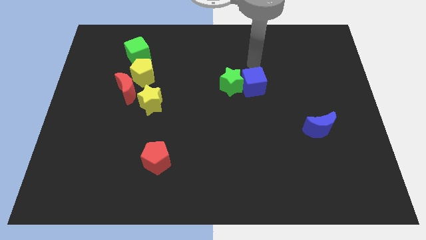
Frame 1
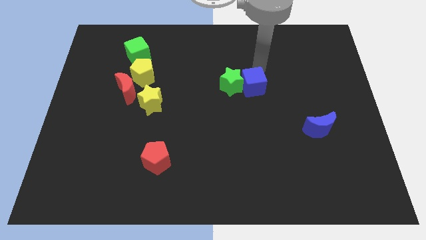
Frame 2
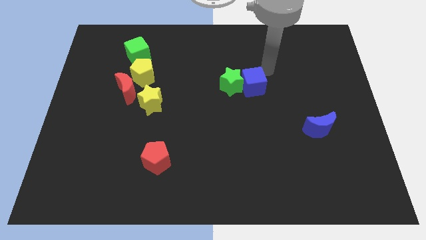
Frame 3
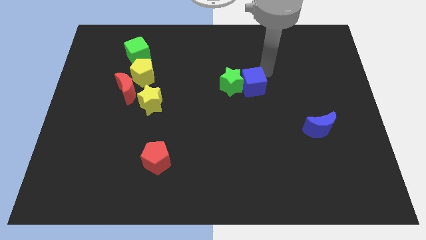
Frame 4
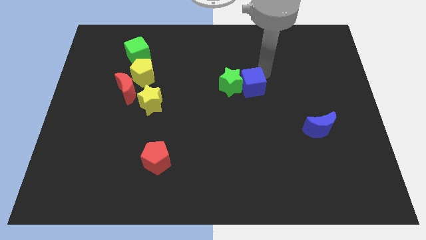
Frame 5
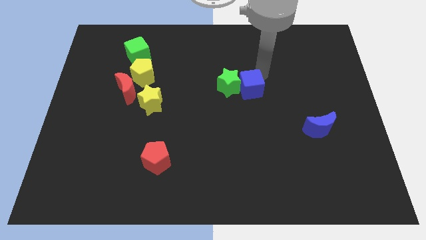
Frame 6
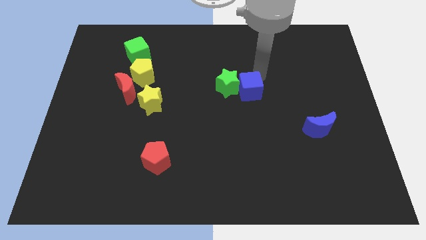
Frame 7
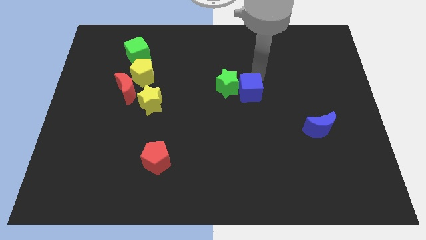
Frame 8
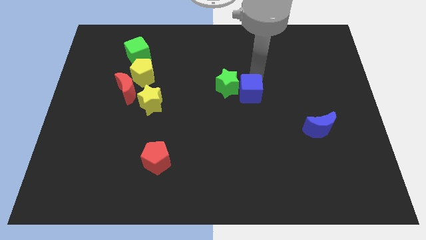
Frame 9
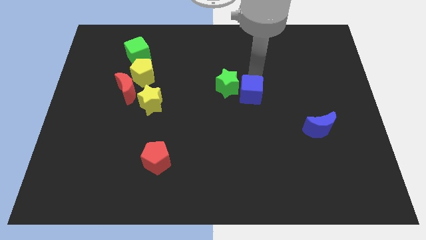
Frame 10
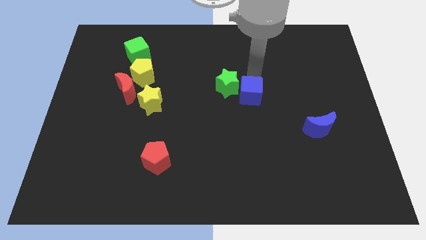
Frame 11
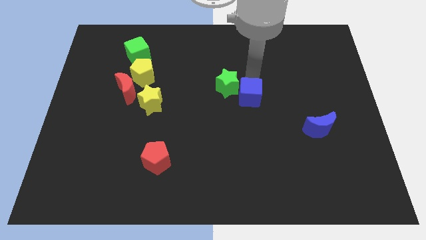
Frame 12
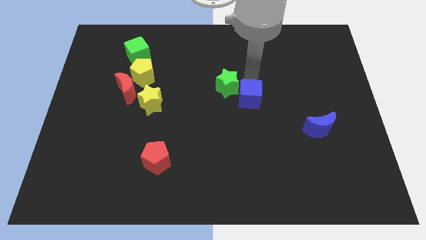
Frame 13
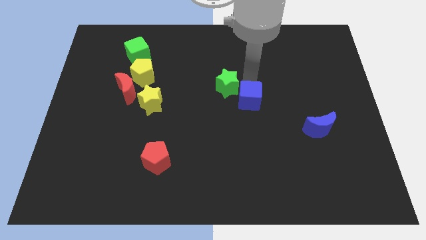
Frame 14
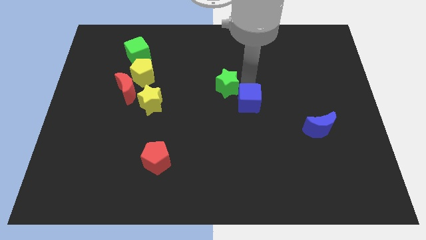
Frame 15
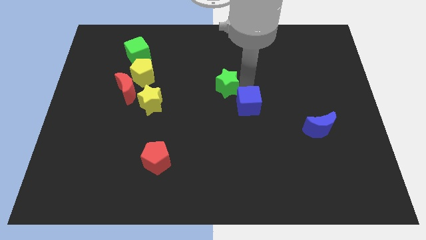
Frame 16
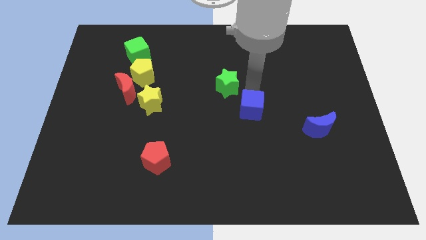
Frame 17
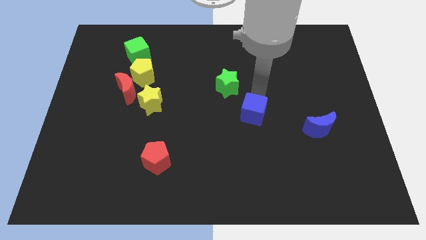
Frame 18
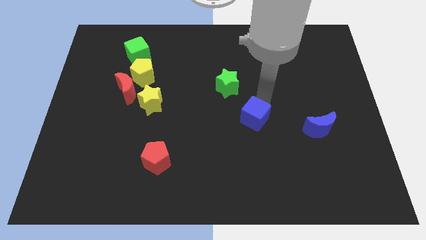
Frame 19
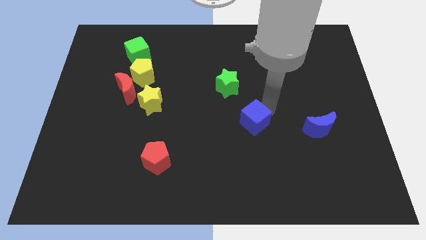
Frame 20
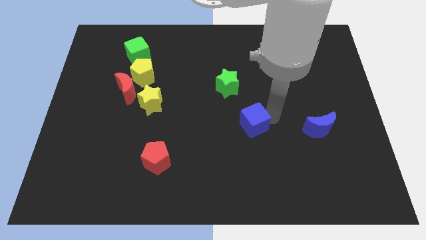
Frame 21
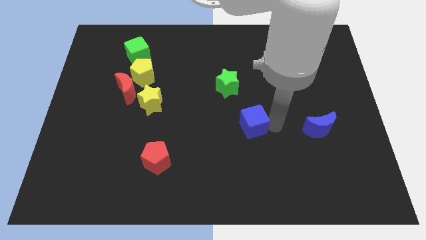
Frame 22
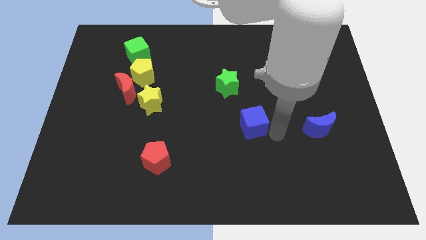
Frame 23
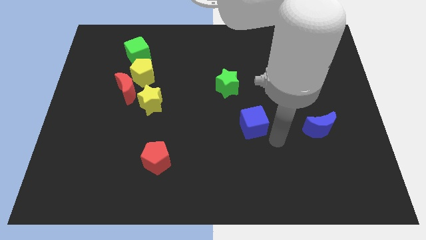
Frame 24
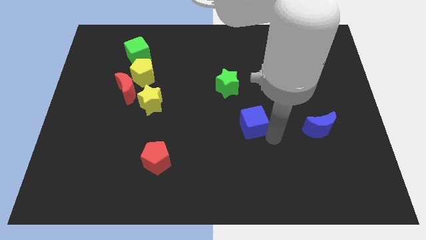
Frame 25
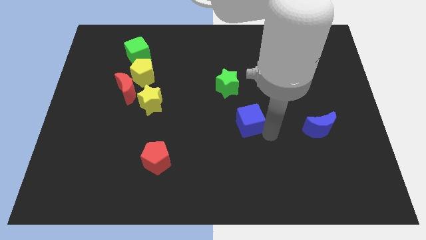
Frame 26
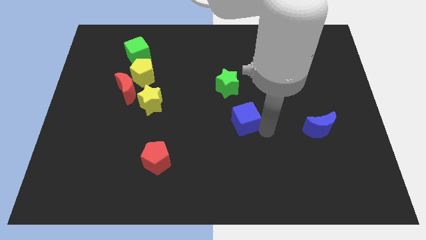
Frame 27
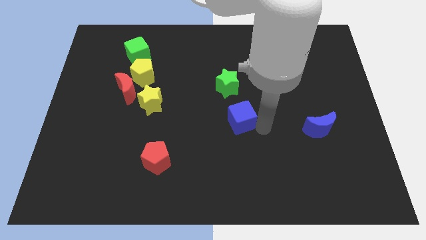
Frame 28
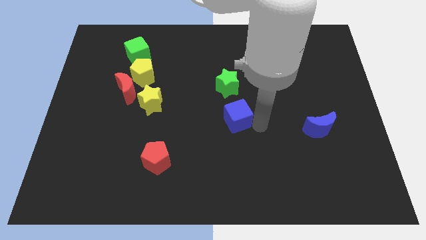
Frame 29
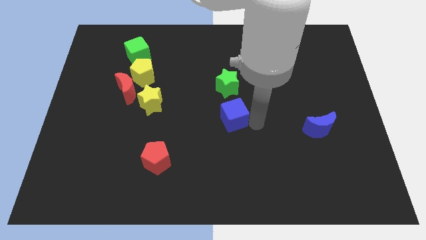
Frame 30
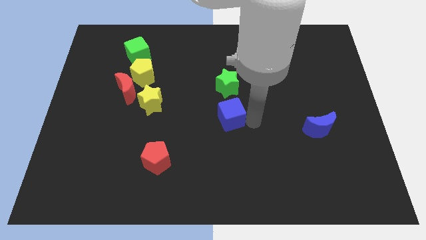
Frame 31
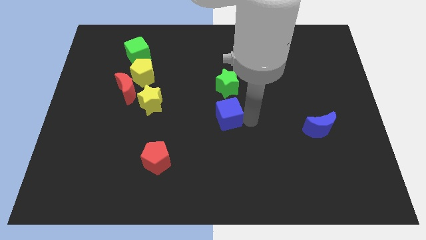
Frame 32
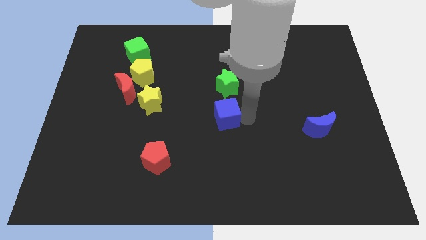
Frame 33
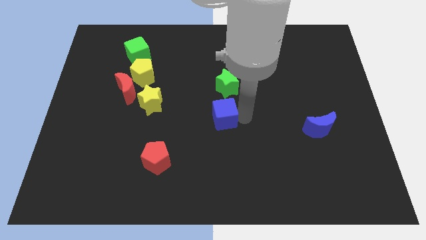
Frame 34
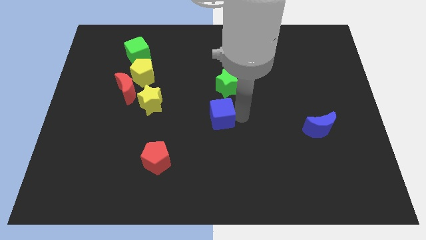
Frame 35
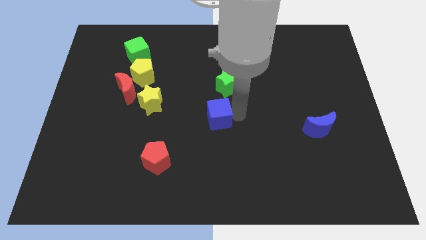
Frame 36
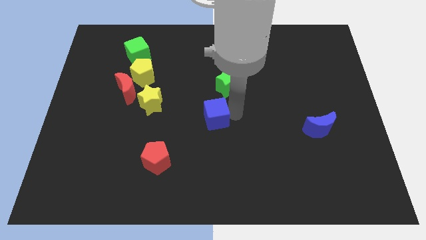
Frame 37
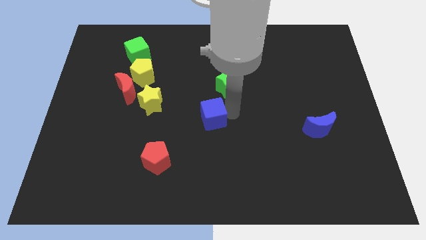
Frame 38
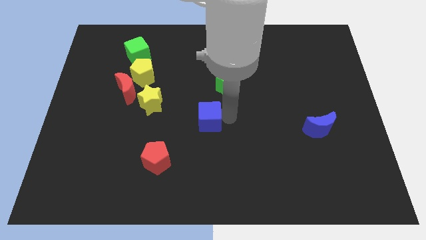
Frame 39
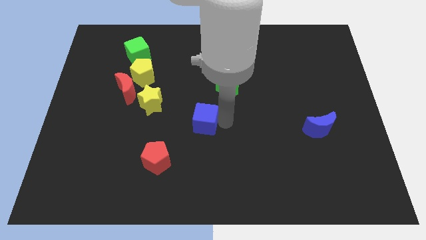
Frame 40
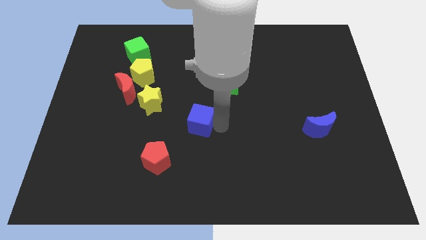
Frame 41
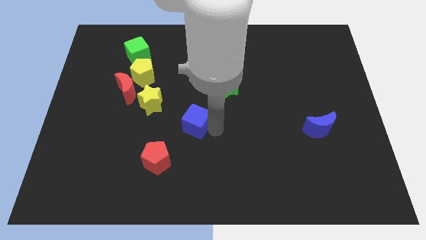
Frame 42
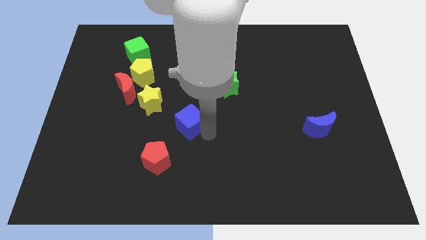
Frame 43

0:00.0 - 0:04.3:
push the blue cube left a bit

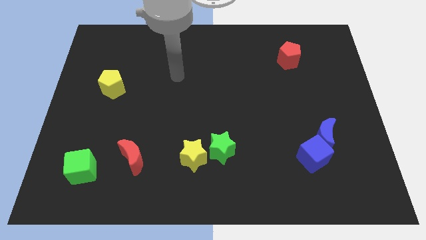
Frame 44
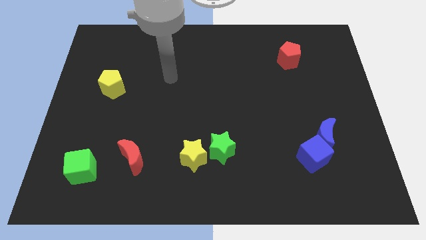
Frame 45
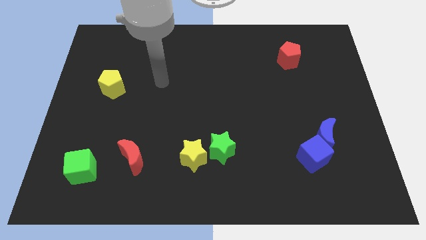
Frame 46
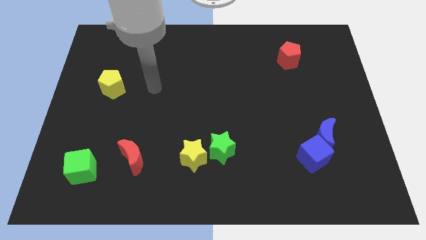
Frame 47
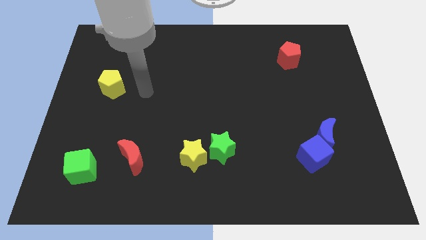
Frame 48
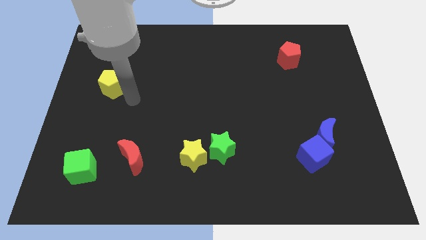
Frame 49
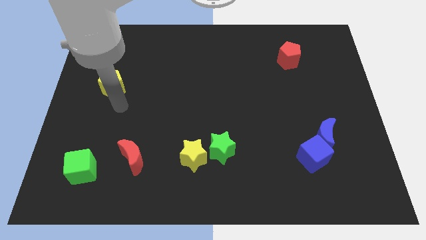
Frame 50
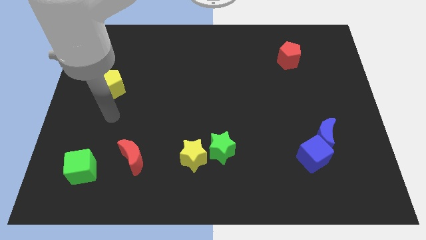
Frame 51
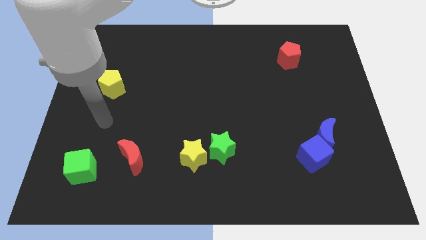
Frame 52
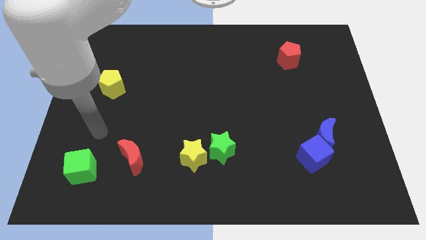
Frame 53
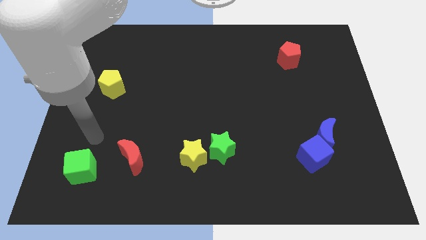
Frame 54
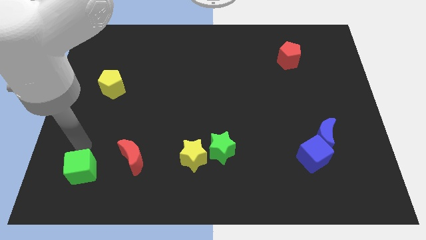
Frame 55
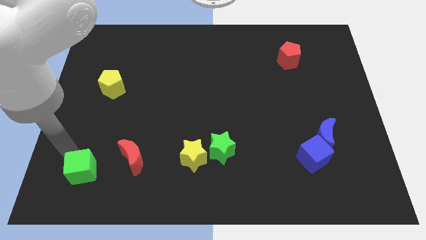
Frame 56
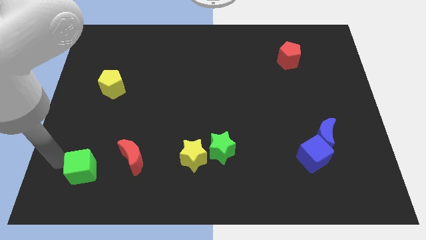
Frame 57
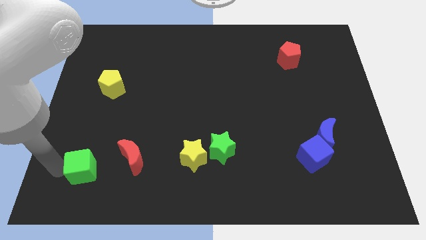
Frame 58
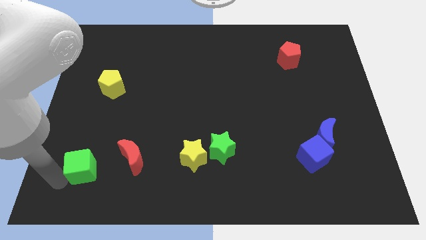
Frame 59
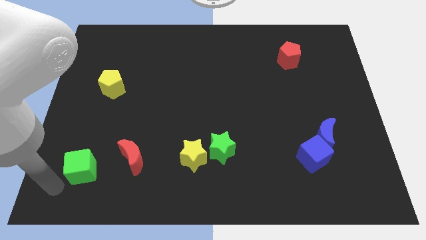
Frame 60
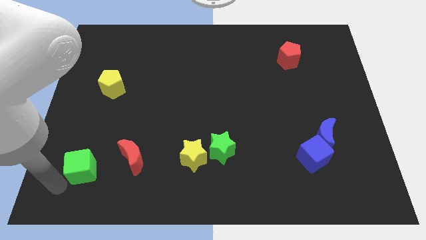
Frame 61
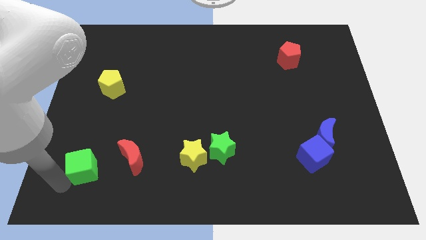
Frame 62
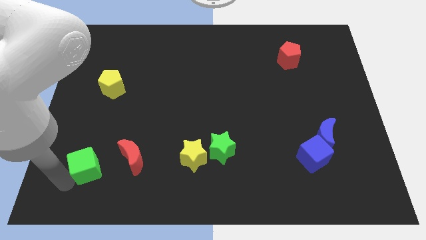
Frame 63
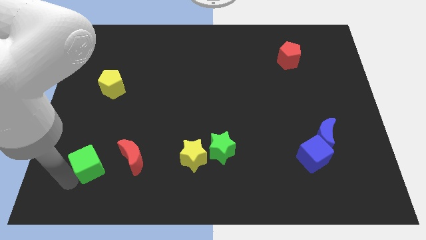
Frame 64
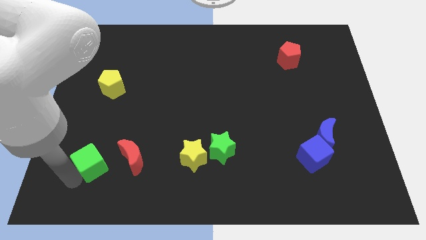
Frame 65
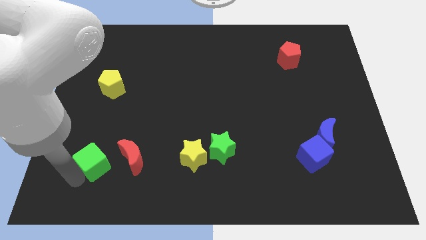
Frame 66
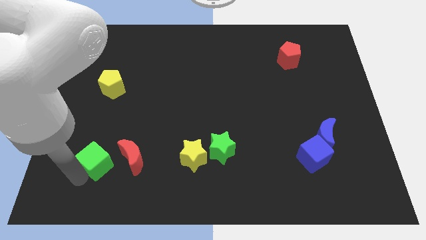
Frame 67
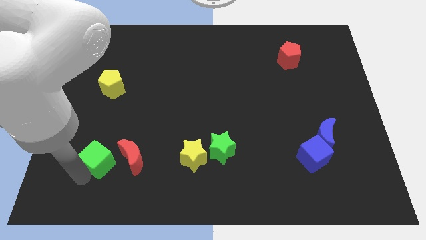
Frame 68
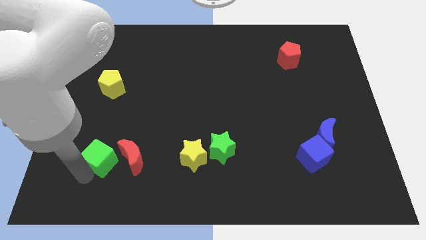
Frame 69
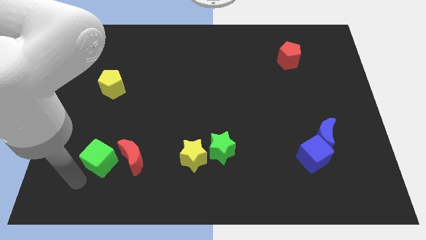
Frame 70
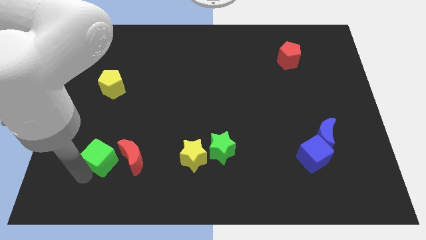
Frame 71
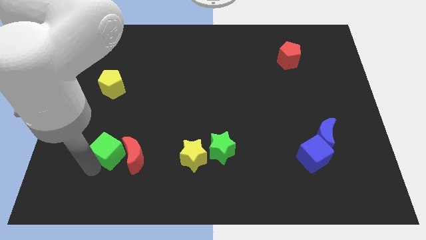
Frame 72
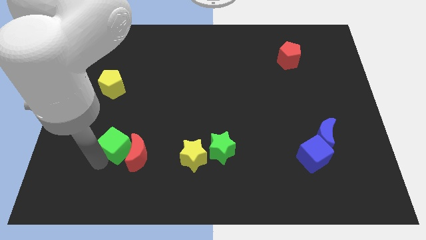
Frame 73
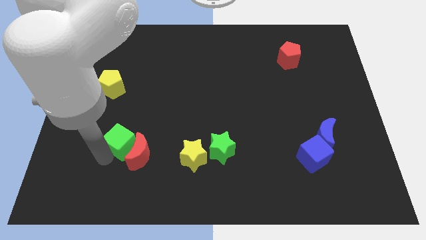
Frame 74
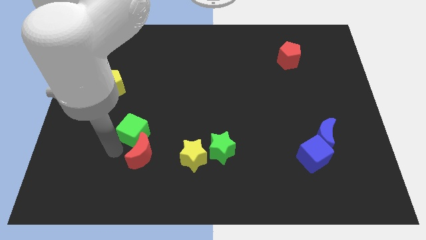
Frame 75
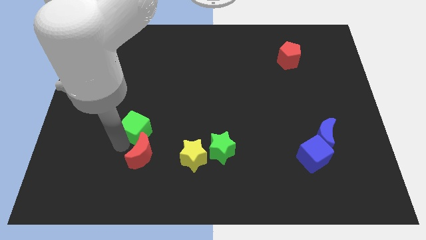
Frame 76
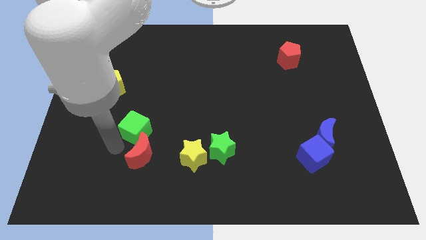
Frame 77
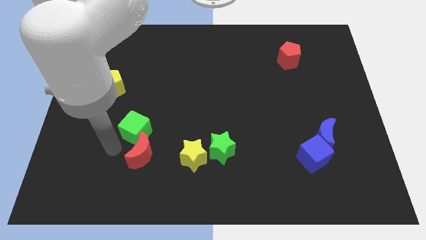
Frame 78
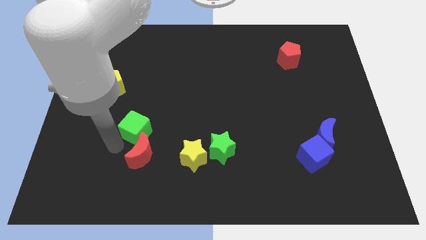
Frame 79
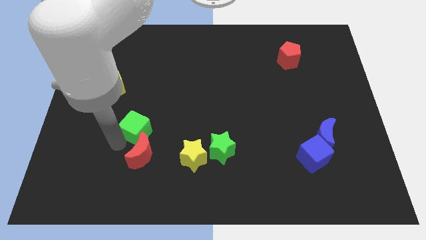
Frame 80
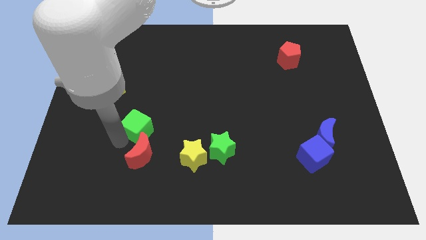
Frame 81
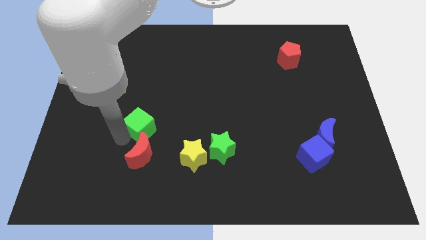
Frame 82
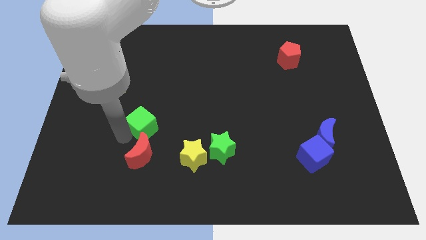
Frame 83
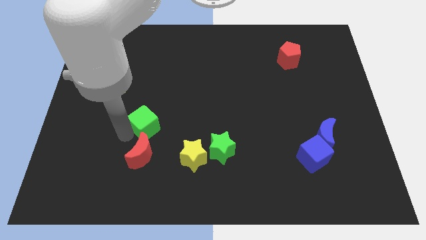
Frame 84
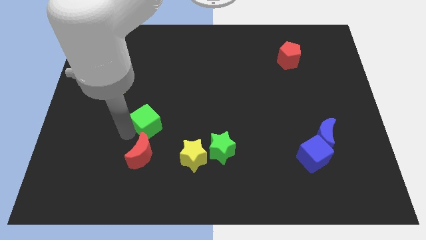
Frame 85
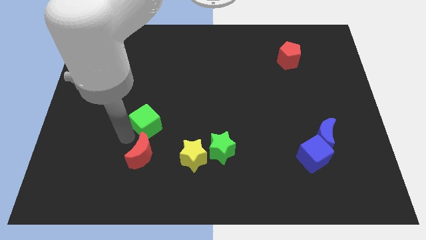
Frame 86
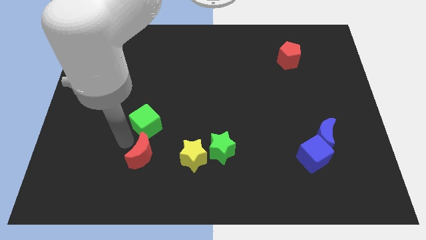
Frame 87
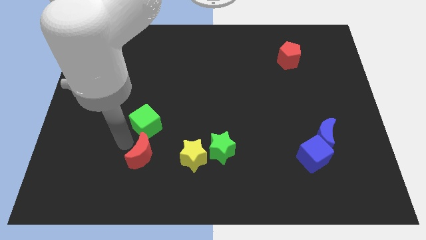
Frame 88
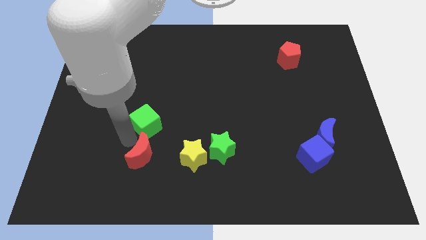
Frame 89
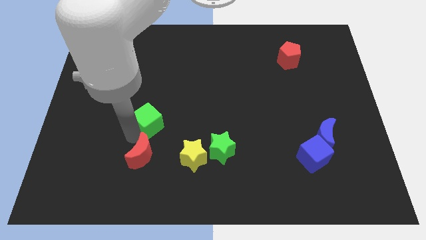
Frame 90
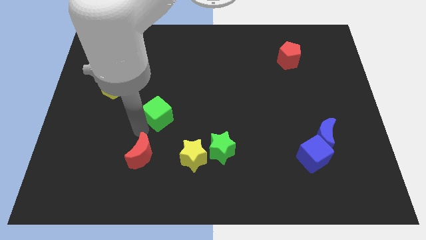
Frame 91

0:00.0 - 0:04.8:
slide the green cube upwards and right
